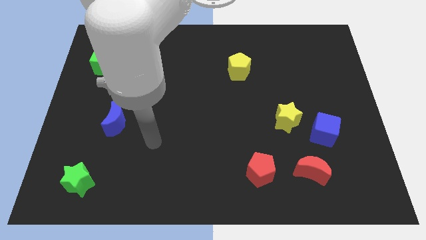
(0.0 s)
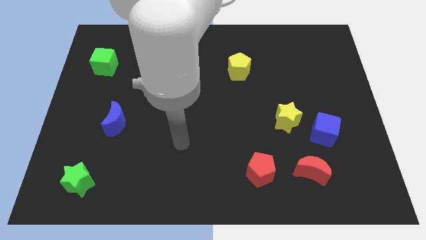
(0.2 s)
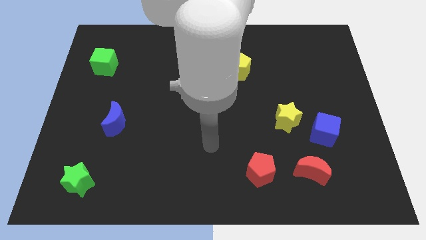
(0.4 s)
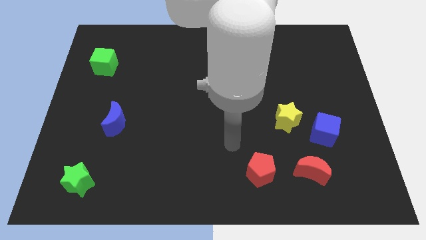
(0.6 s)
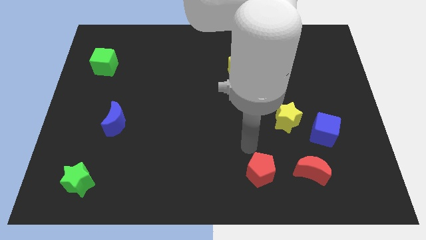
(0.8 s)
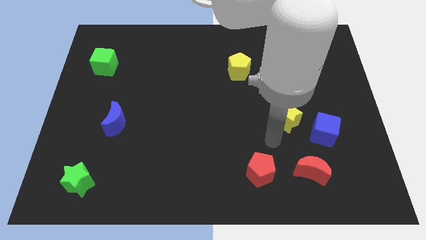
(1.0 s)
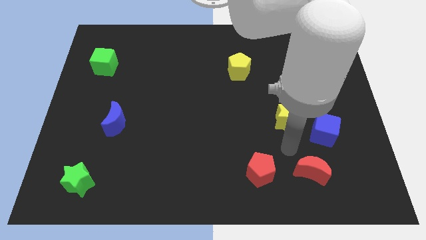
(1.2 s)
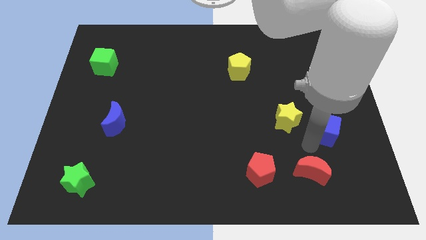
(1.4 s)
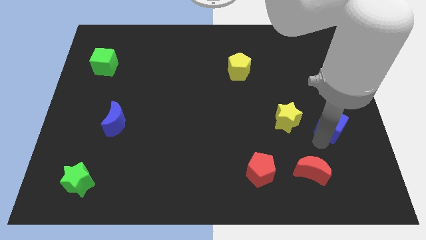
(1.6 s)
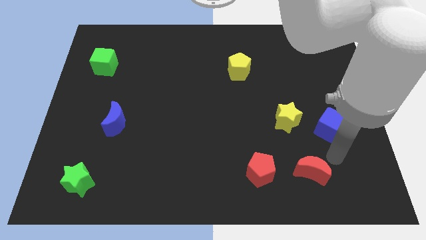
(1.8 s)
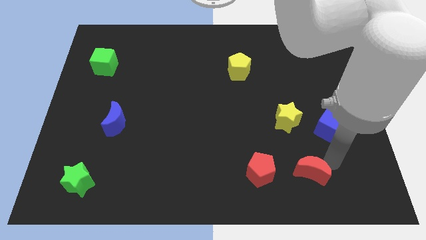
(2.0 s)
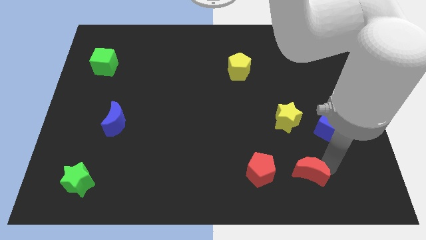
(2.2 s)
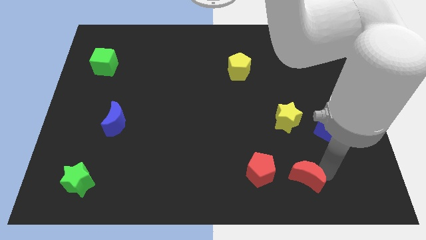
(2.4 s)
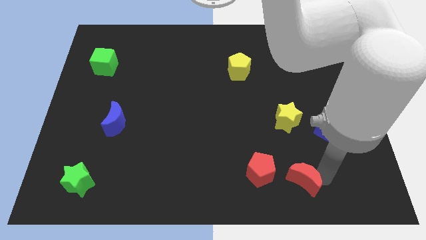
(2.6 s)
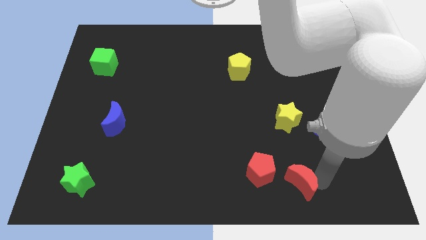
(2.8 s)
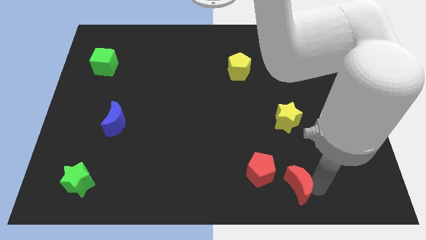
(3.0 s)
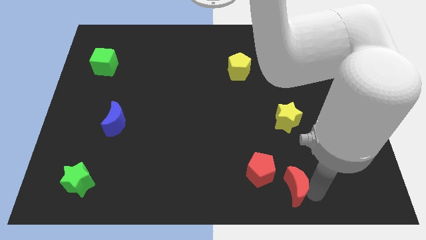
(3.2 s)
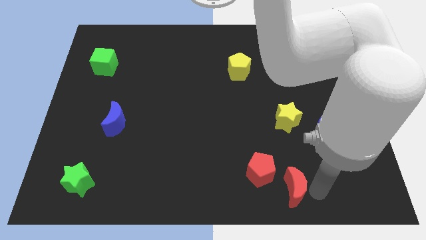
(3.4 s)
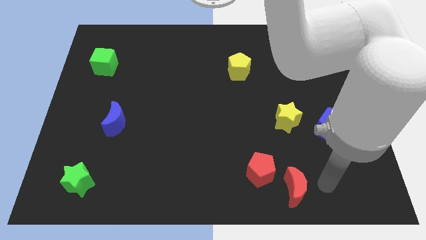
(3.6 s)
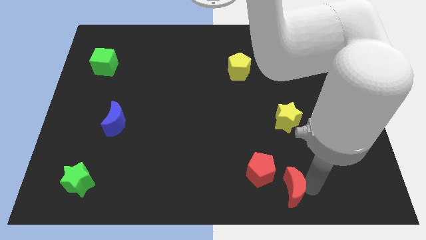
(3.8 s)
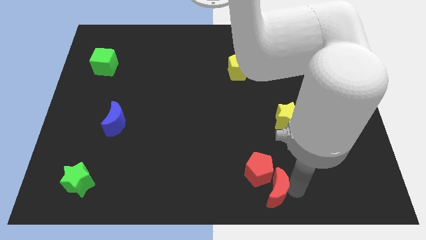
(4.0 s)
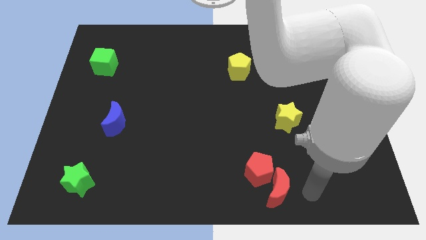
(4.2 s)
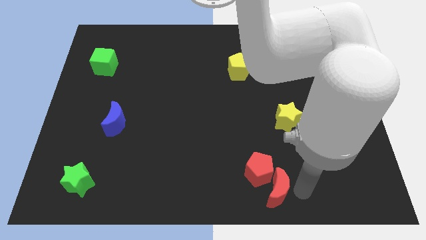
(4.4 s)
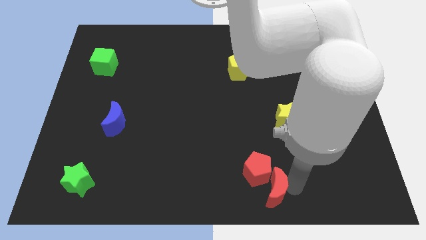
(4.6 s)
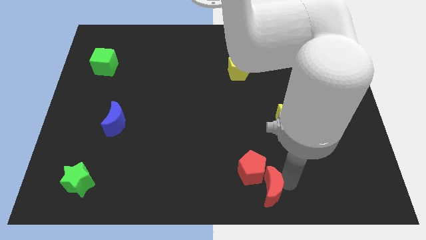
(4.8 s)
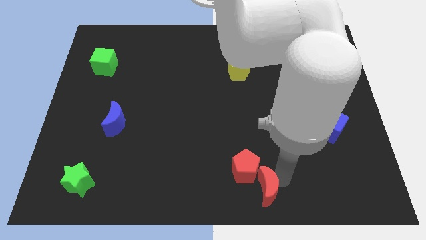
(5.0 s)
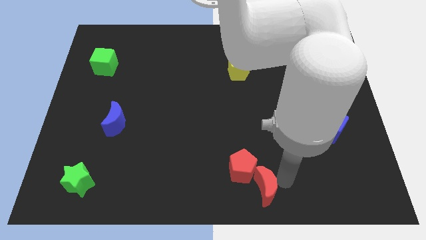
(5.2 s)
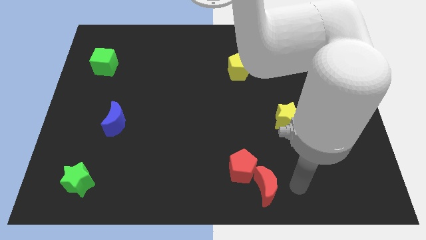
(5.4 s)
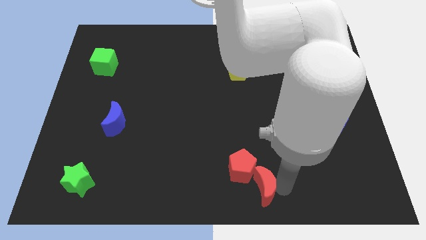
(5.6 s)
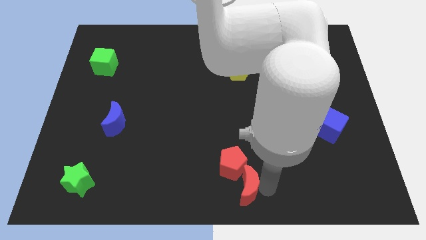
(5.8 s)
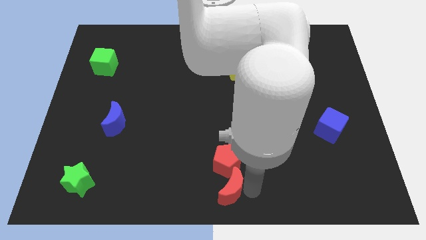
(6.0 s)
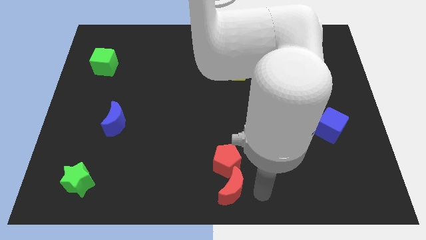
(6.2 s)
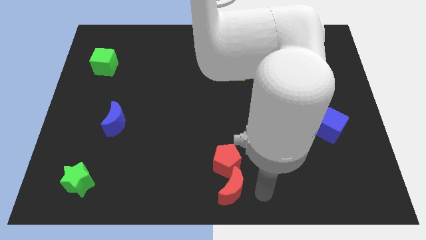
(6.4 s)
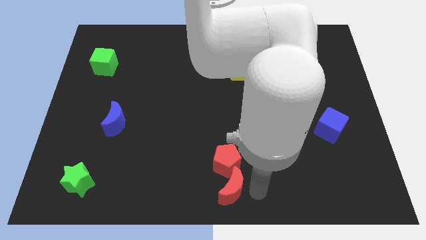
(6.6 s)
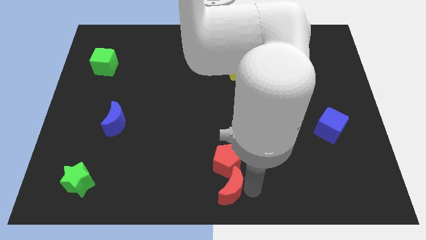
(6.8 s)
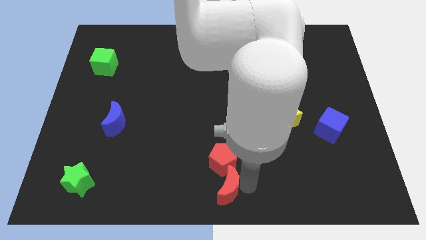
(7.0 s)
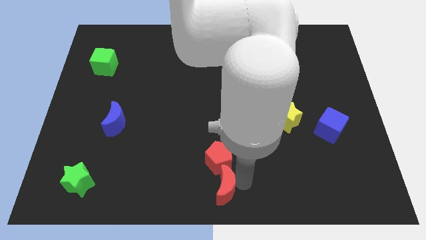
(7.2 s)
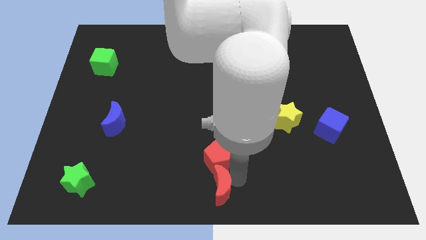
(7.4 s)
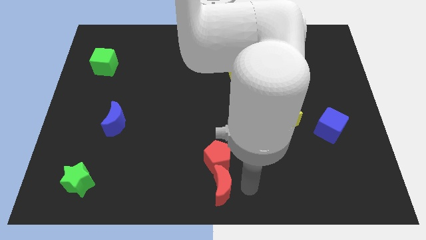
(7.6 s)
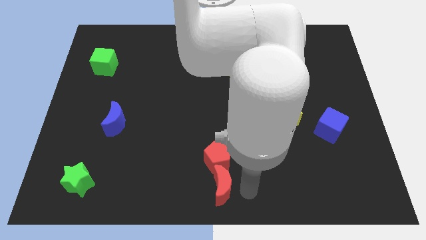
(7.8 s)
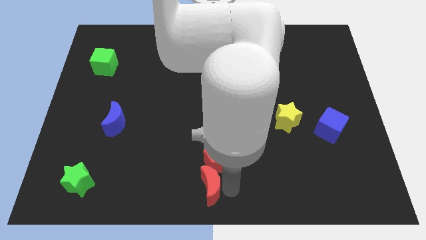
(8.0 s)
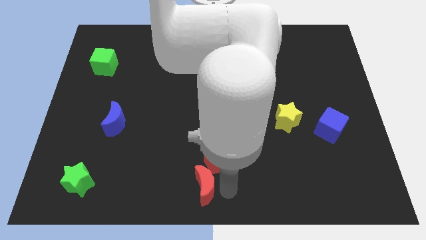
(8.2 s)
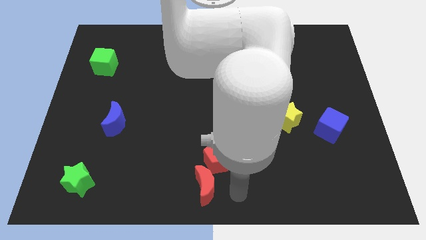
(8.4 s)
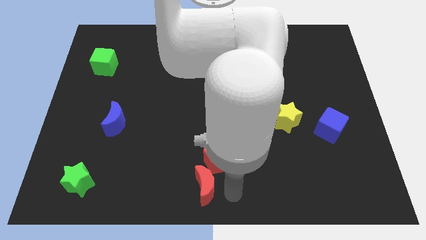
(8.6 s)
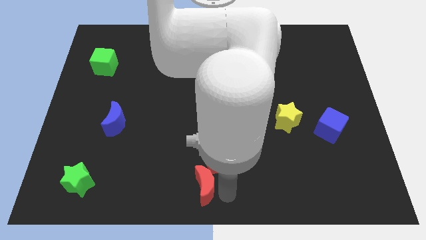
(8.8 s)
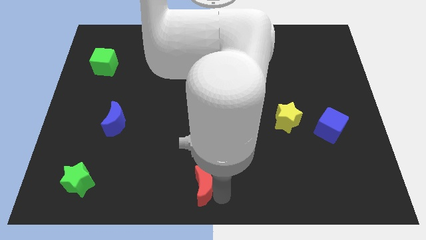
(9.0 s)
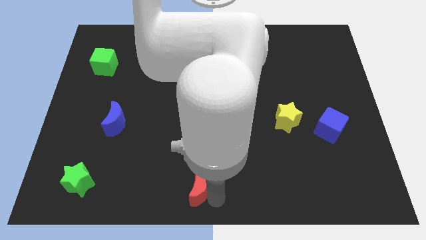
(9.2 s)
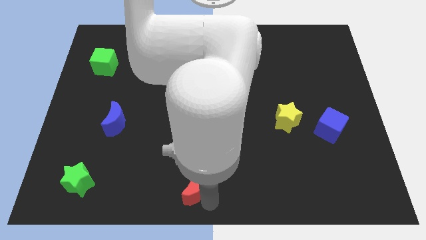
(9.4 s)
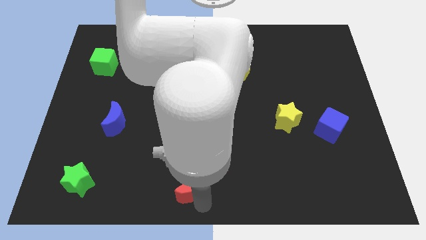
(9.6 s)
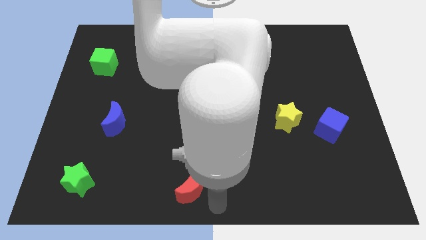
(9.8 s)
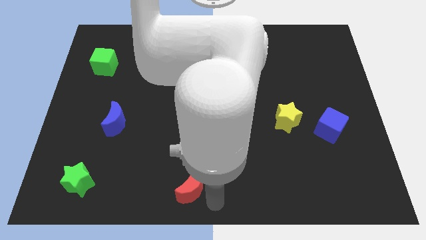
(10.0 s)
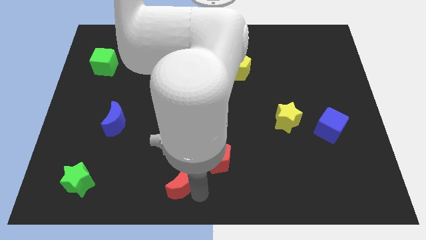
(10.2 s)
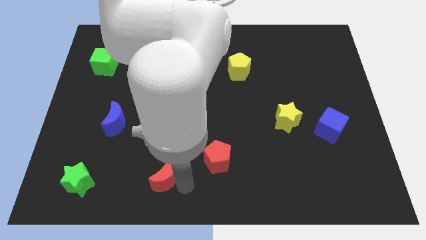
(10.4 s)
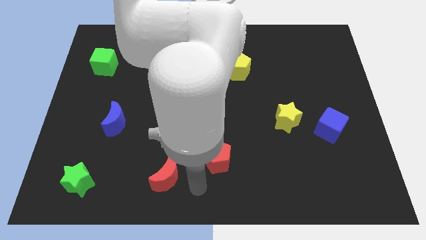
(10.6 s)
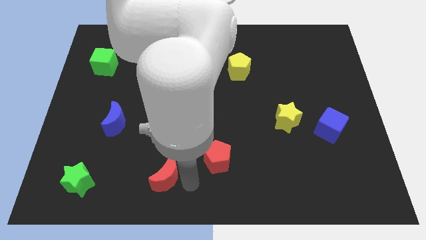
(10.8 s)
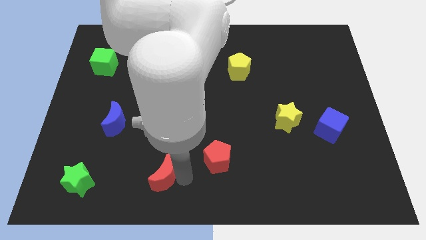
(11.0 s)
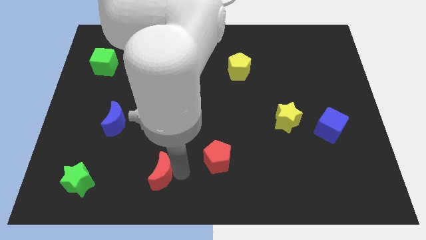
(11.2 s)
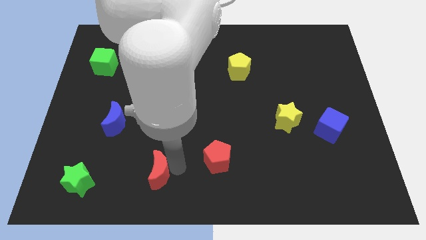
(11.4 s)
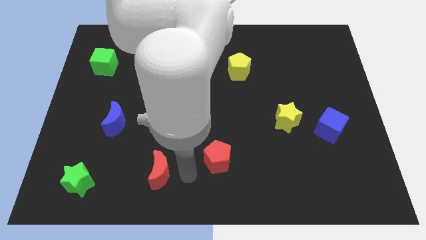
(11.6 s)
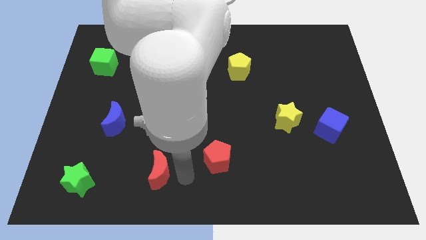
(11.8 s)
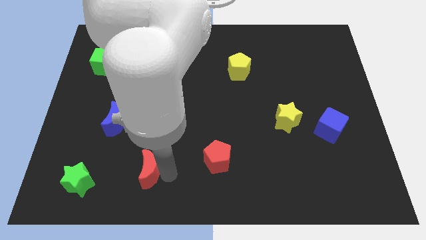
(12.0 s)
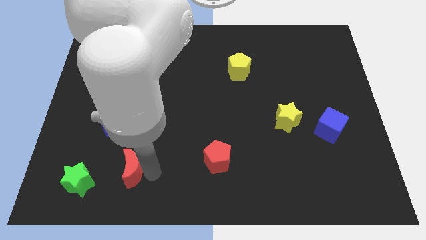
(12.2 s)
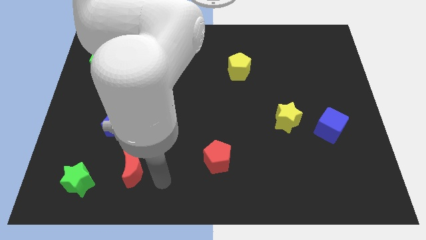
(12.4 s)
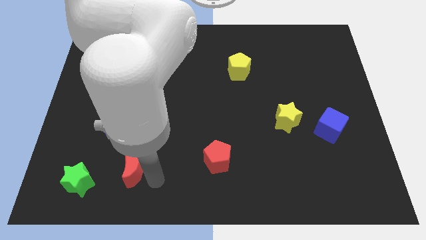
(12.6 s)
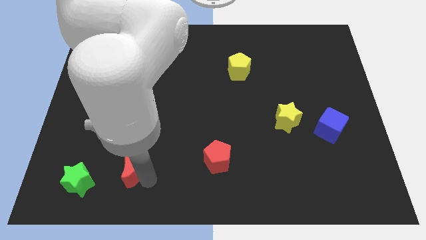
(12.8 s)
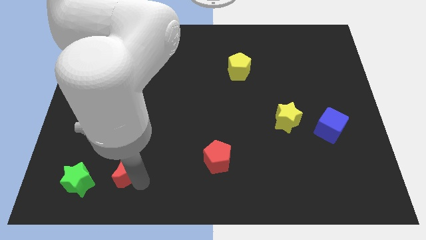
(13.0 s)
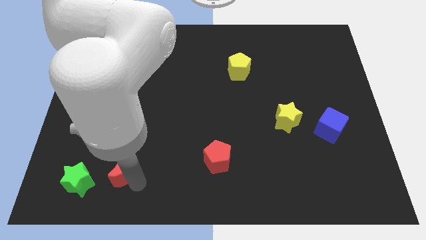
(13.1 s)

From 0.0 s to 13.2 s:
move the red moon to the top right of the green star

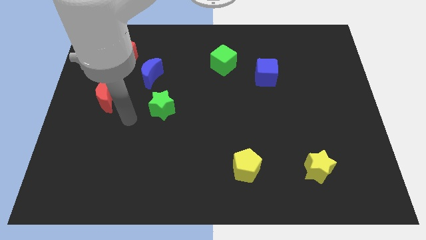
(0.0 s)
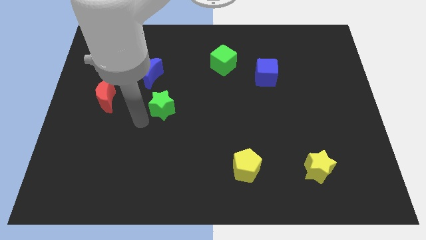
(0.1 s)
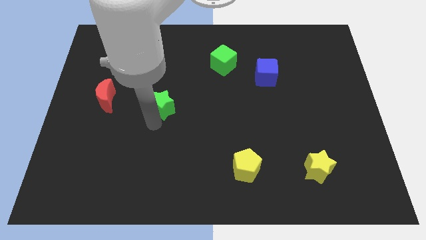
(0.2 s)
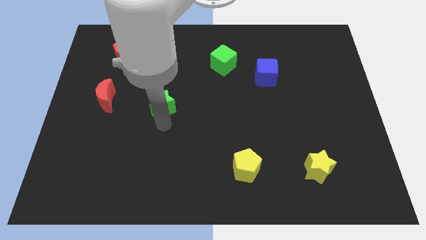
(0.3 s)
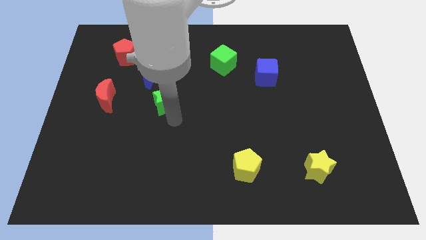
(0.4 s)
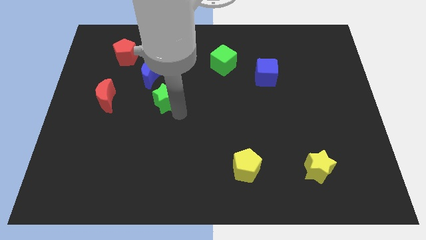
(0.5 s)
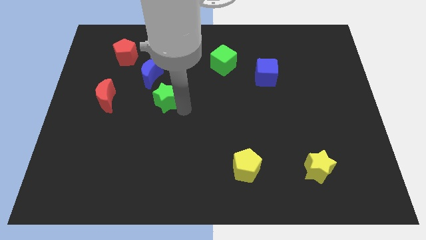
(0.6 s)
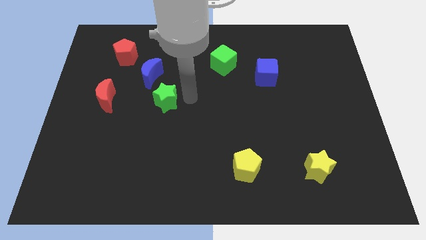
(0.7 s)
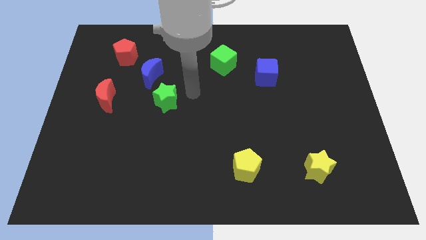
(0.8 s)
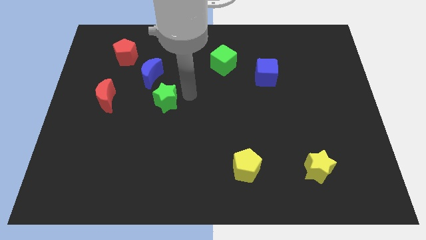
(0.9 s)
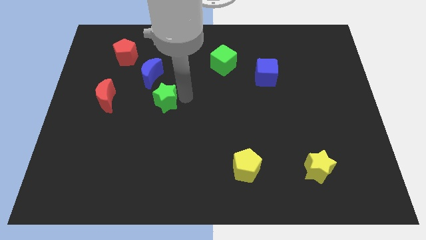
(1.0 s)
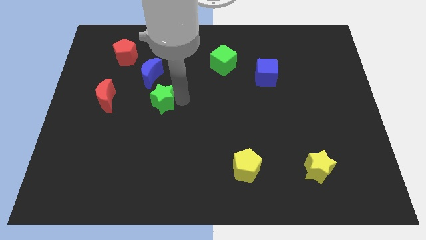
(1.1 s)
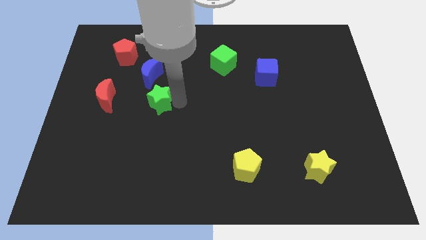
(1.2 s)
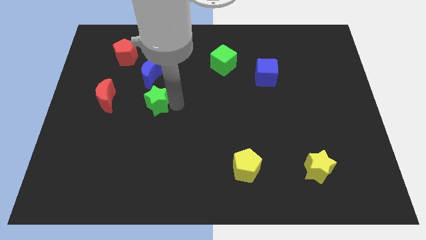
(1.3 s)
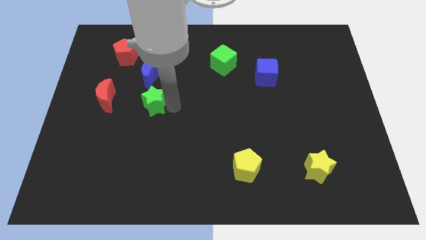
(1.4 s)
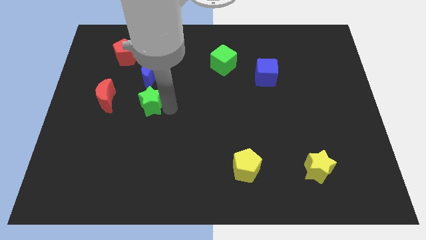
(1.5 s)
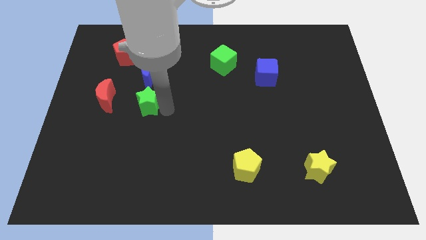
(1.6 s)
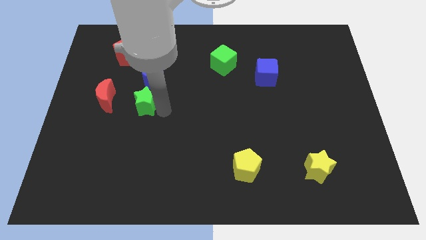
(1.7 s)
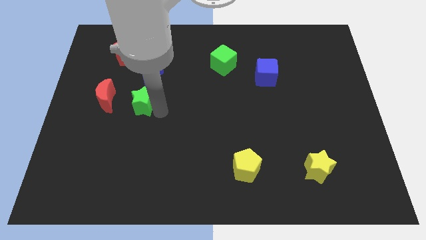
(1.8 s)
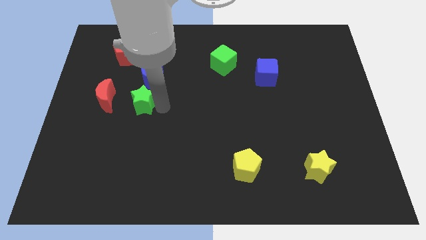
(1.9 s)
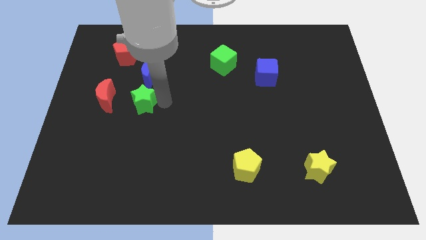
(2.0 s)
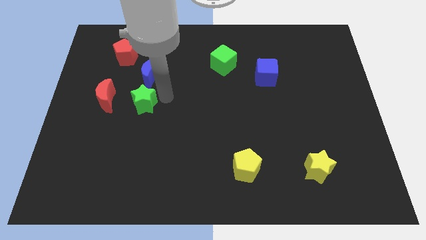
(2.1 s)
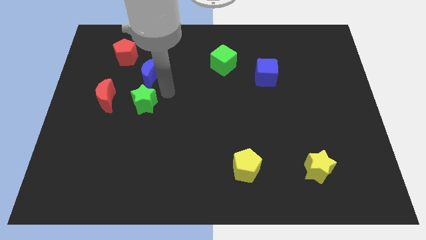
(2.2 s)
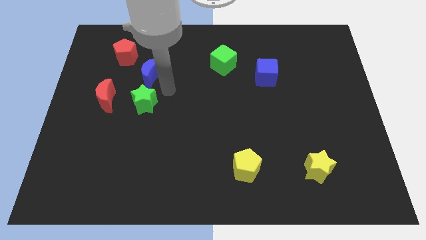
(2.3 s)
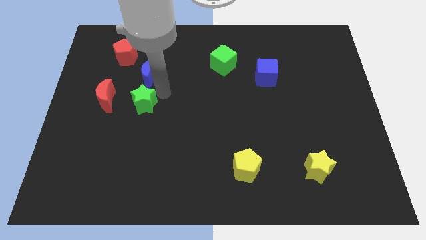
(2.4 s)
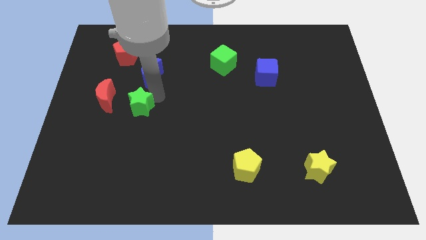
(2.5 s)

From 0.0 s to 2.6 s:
move the green star diagonally down and to the right of the red moon
